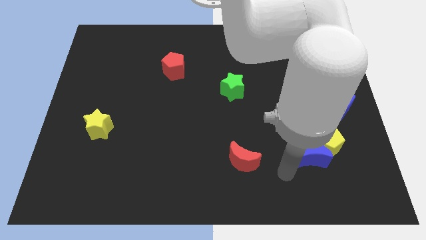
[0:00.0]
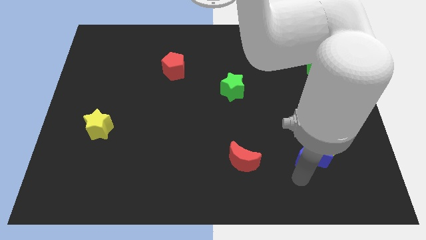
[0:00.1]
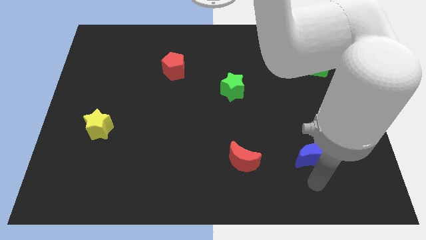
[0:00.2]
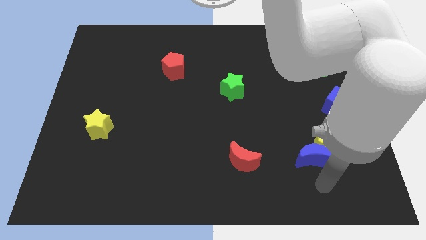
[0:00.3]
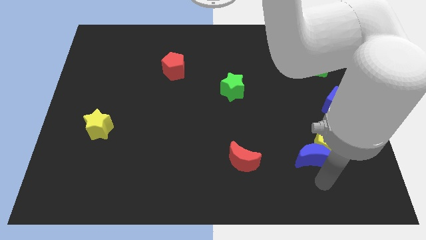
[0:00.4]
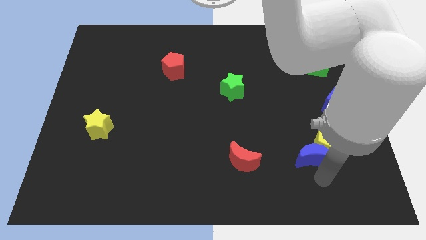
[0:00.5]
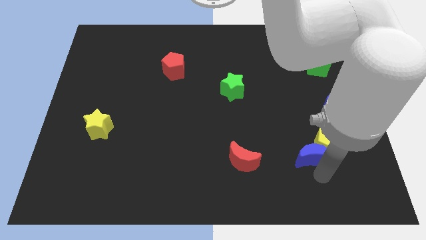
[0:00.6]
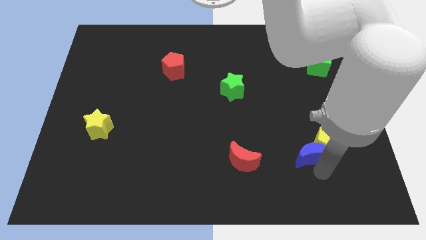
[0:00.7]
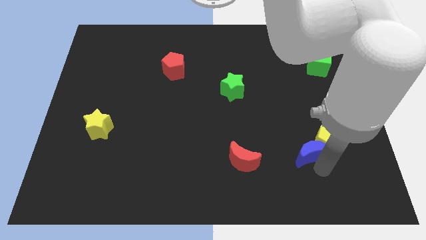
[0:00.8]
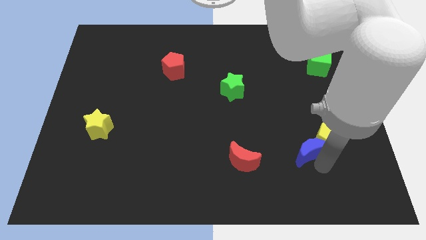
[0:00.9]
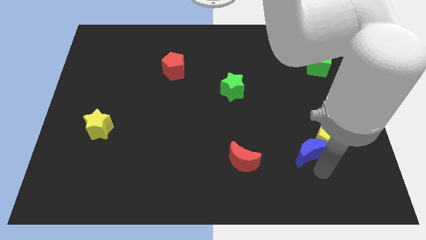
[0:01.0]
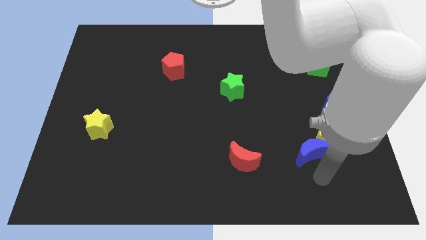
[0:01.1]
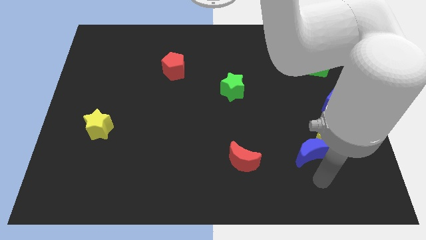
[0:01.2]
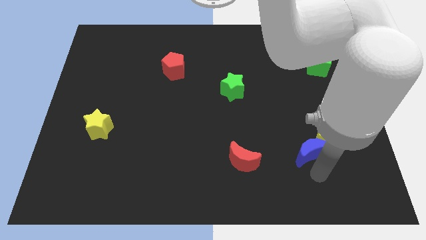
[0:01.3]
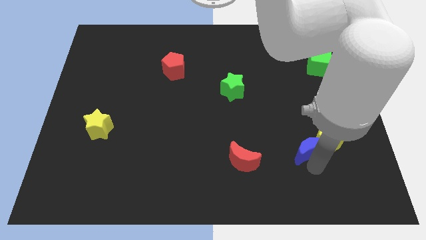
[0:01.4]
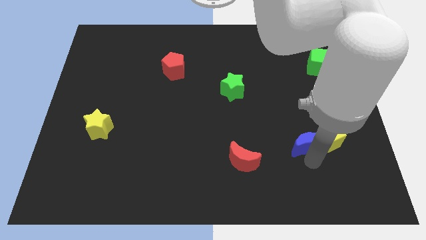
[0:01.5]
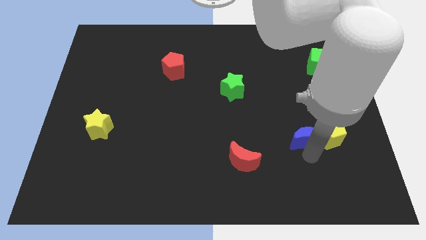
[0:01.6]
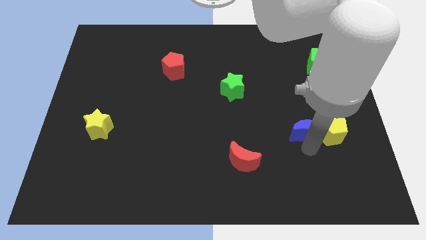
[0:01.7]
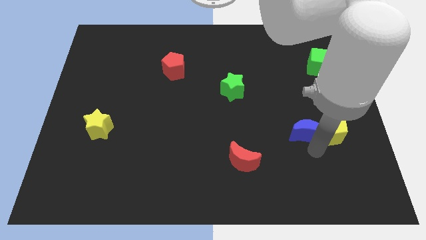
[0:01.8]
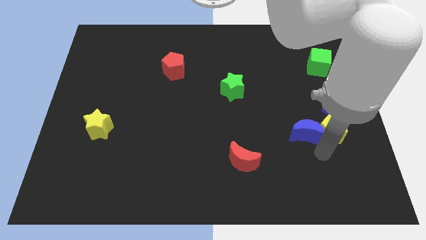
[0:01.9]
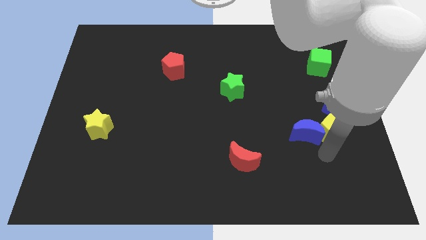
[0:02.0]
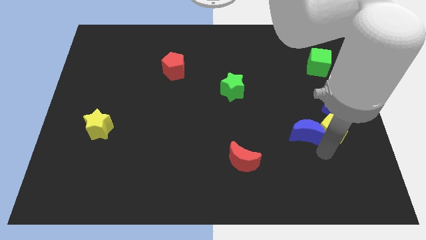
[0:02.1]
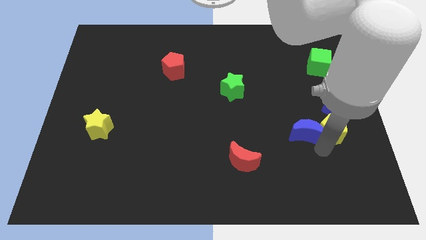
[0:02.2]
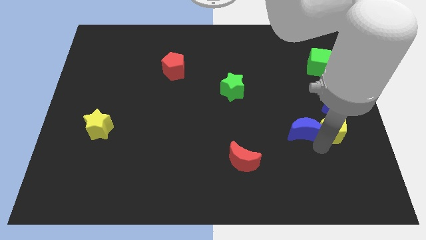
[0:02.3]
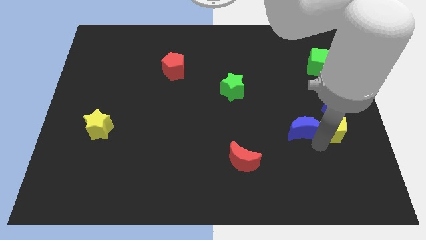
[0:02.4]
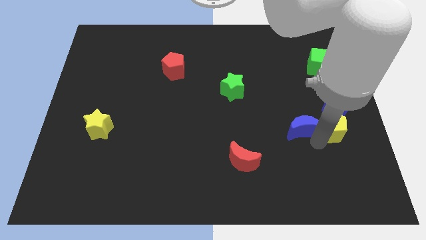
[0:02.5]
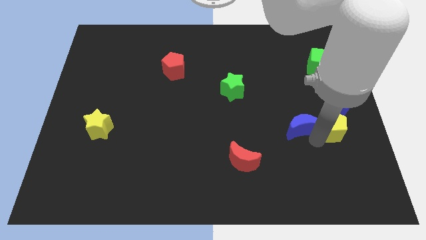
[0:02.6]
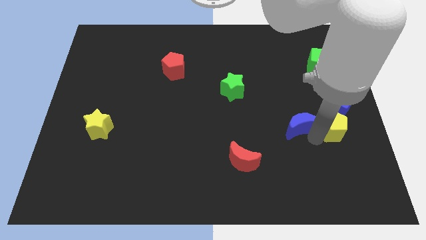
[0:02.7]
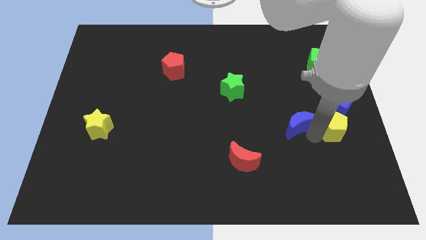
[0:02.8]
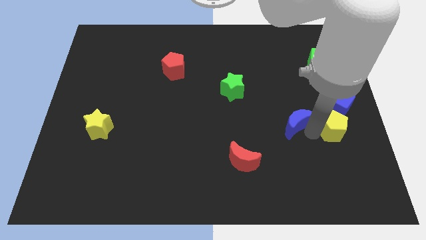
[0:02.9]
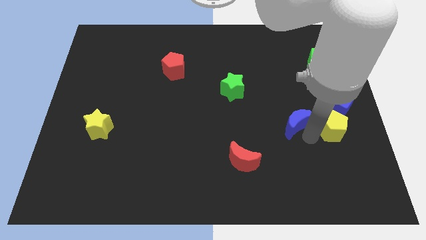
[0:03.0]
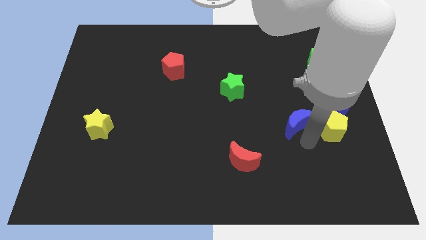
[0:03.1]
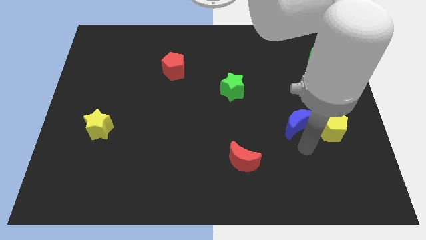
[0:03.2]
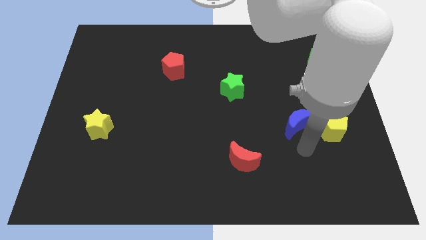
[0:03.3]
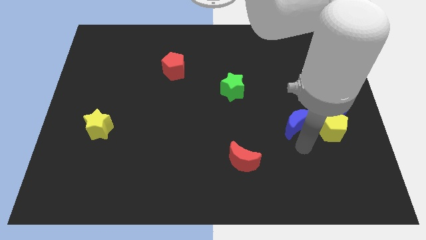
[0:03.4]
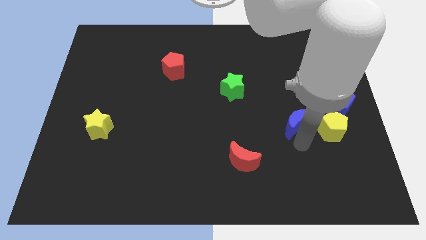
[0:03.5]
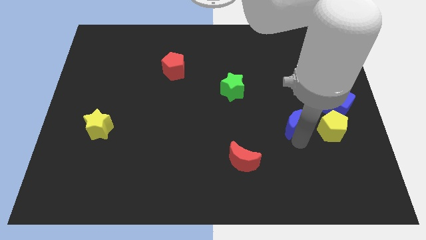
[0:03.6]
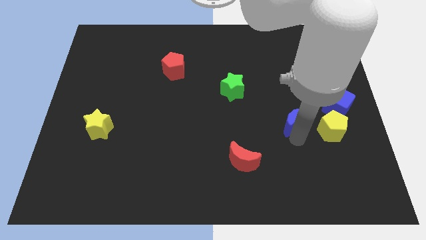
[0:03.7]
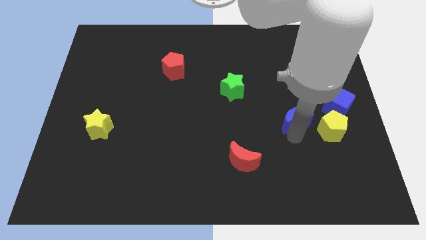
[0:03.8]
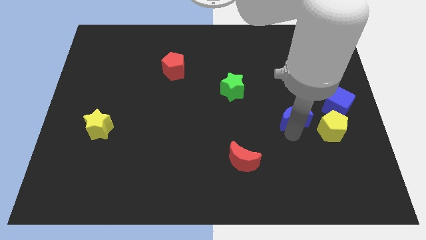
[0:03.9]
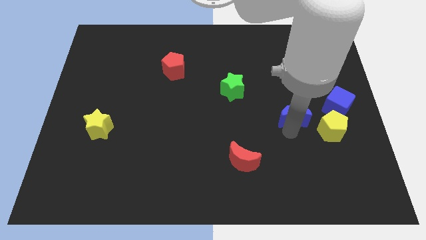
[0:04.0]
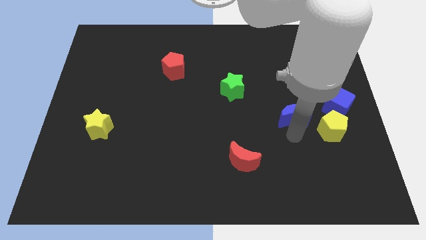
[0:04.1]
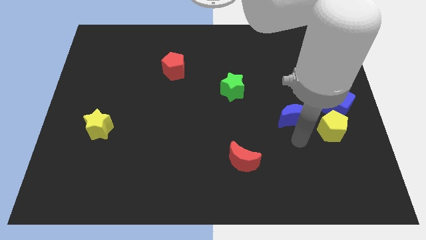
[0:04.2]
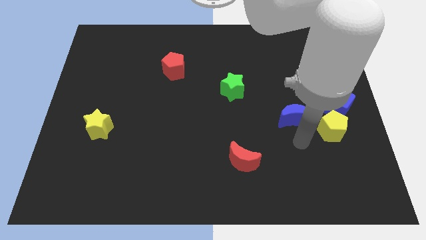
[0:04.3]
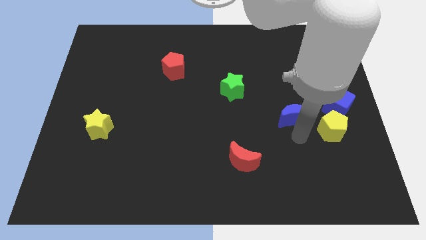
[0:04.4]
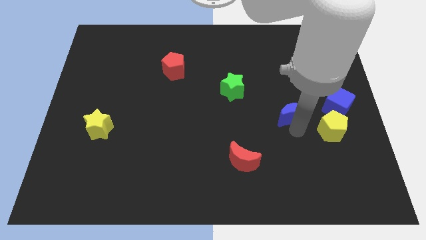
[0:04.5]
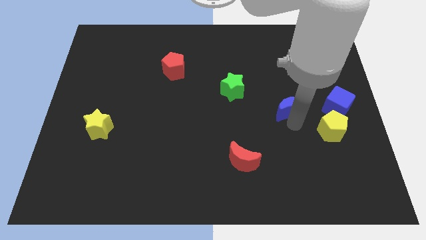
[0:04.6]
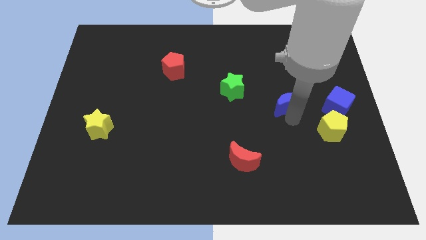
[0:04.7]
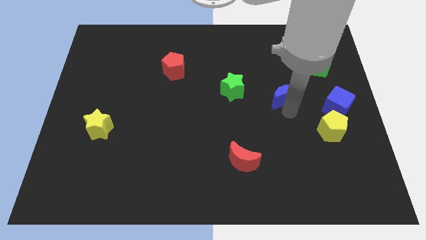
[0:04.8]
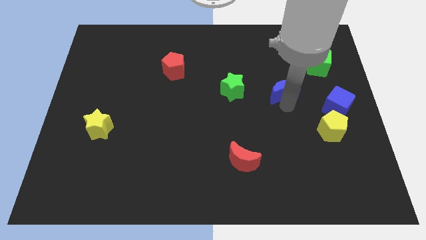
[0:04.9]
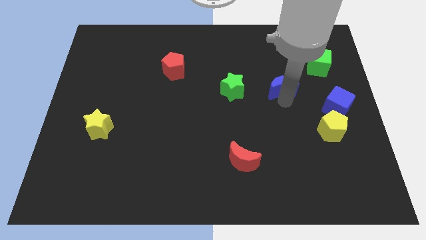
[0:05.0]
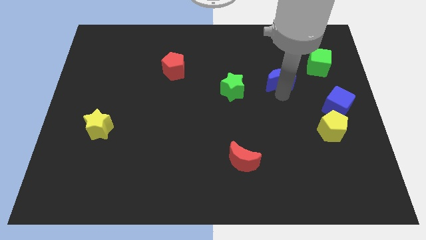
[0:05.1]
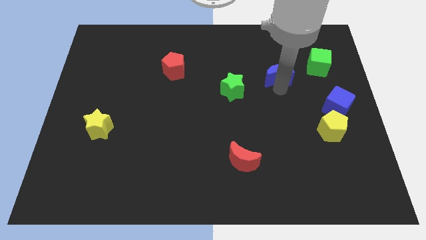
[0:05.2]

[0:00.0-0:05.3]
slide the blue moon to the left side of the green cube

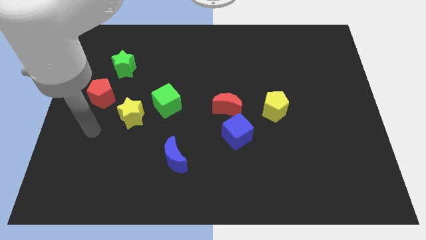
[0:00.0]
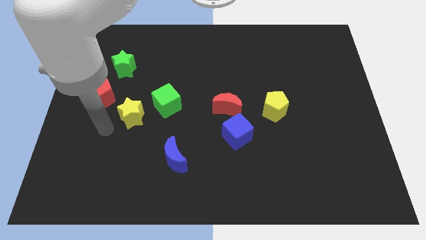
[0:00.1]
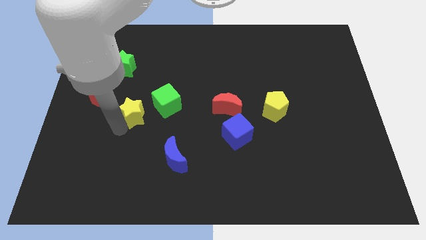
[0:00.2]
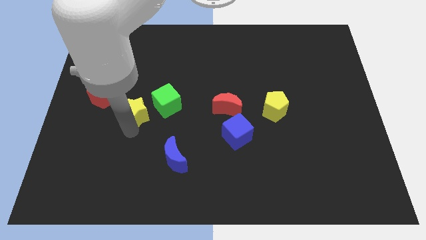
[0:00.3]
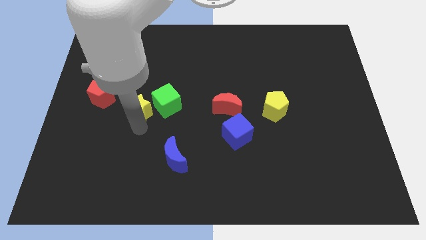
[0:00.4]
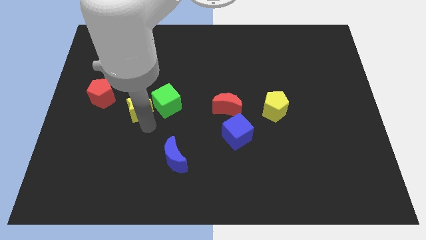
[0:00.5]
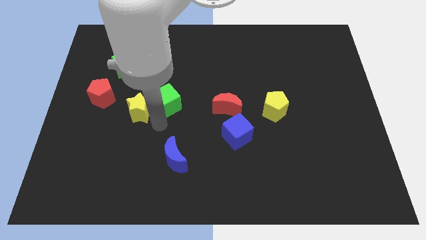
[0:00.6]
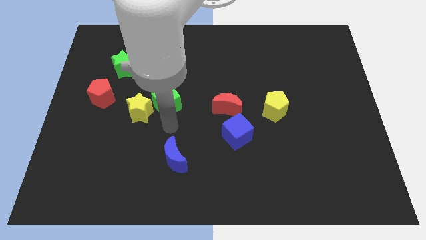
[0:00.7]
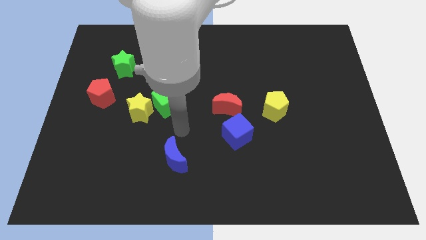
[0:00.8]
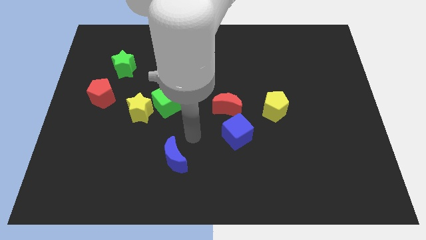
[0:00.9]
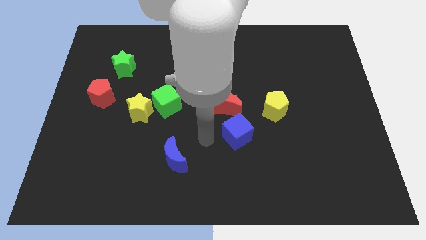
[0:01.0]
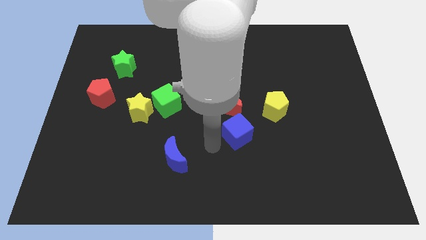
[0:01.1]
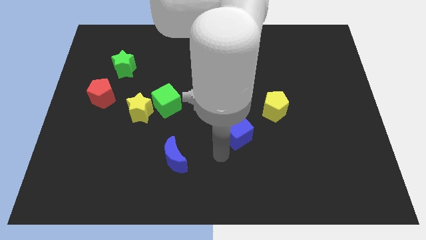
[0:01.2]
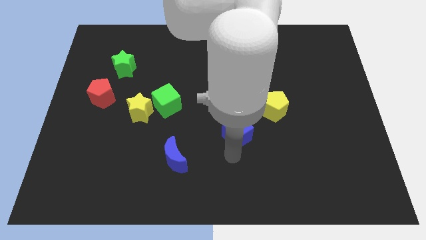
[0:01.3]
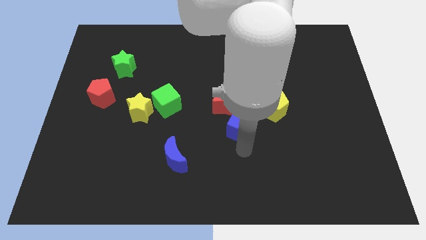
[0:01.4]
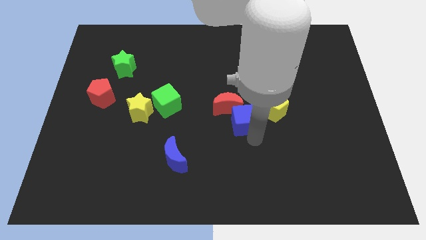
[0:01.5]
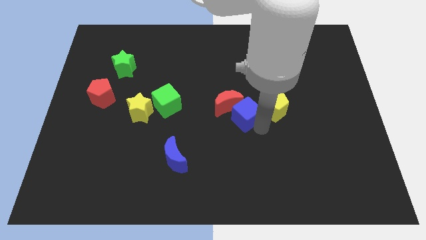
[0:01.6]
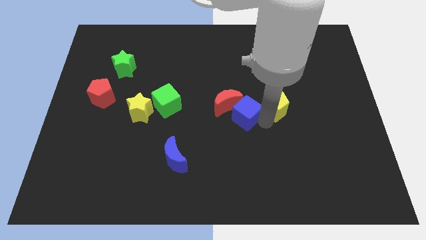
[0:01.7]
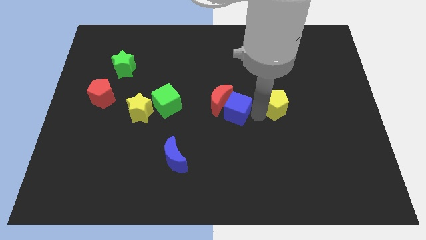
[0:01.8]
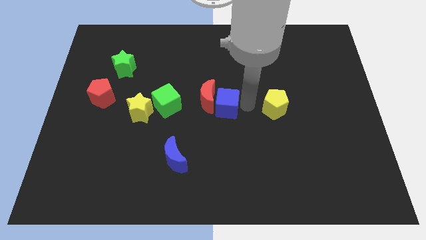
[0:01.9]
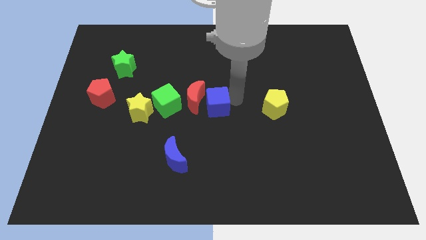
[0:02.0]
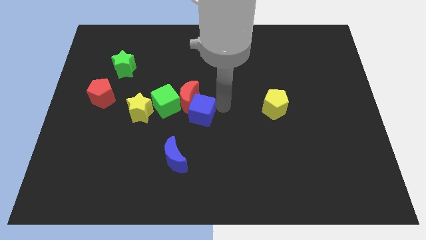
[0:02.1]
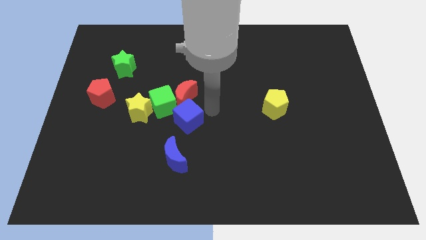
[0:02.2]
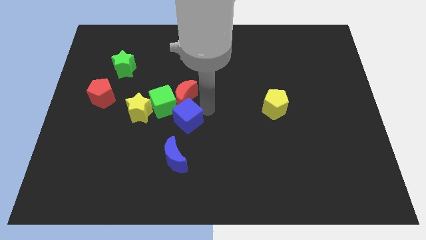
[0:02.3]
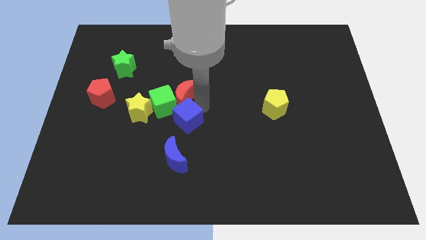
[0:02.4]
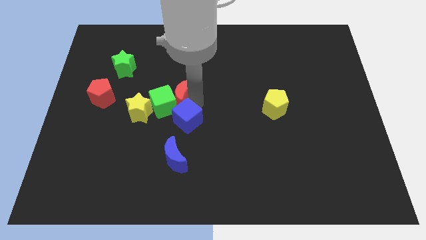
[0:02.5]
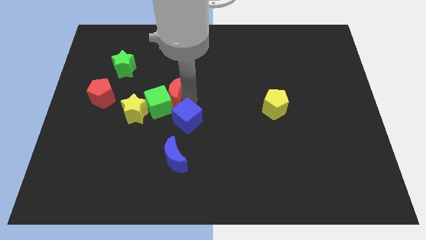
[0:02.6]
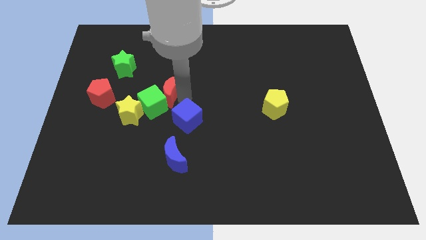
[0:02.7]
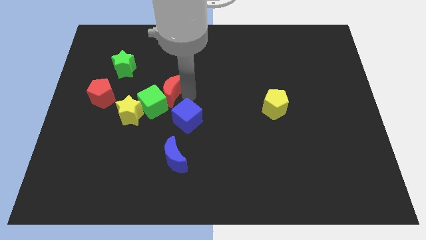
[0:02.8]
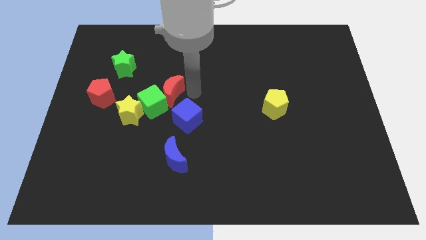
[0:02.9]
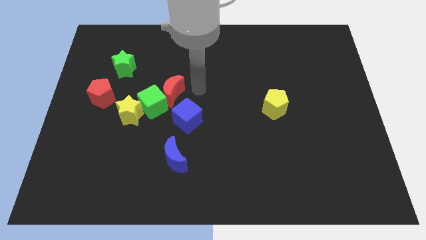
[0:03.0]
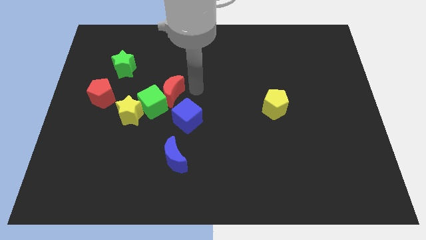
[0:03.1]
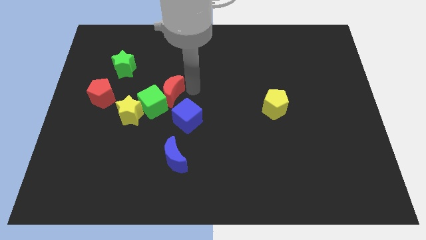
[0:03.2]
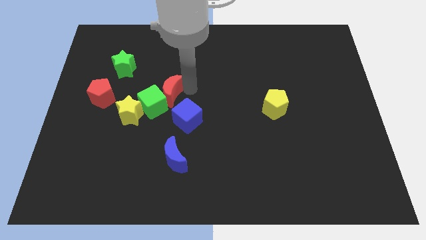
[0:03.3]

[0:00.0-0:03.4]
put the red moon to the right side of the red pentagon
